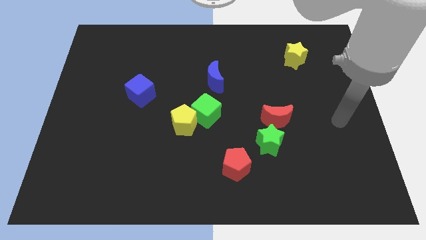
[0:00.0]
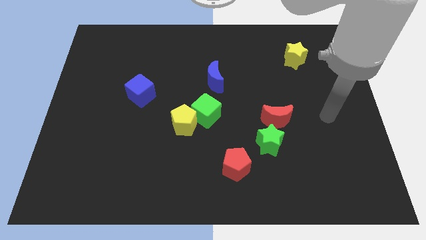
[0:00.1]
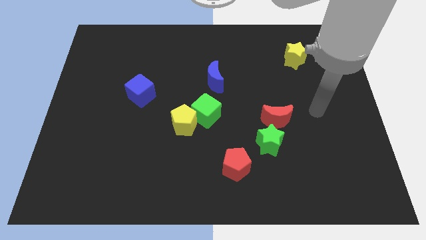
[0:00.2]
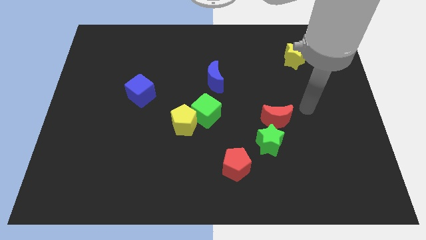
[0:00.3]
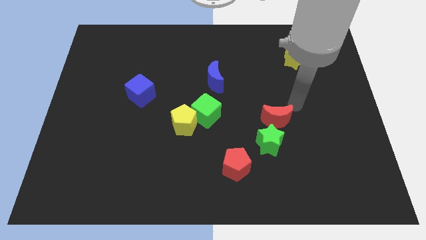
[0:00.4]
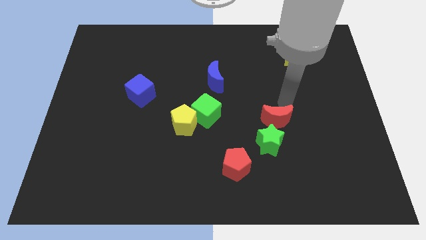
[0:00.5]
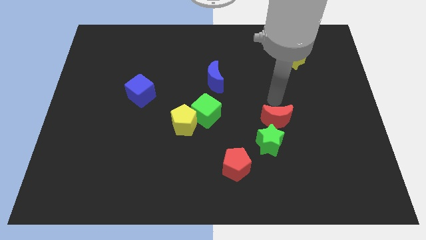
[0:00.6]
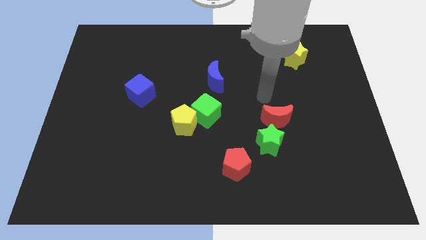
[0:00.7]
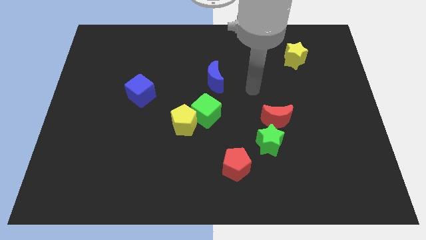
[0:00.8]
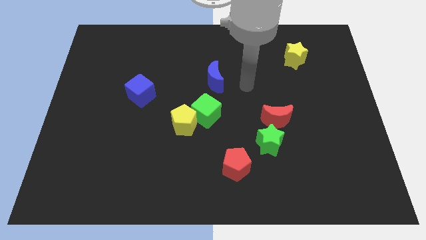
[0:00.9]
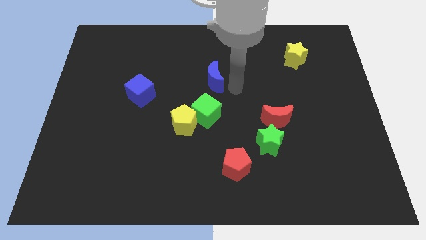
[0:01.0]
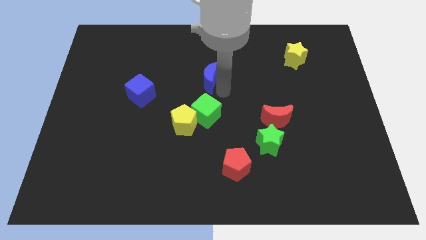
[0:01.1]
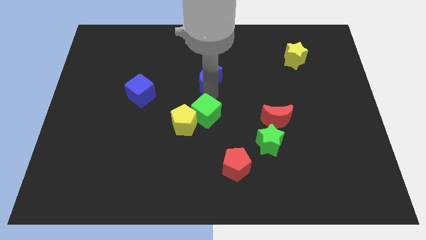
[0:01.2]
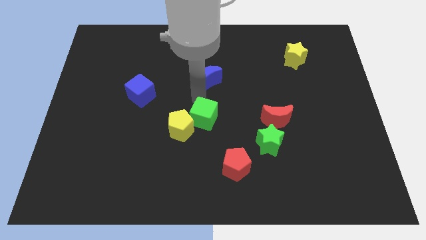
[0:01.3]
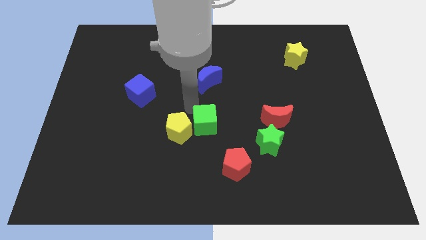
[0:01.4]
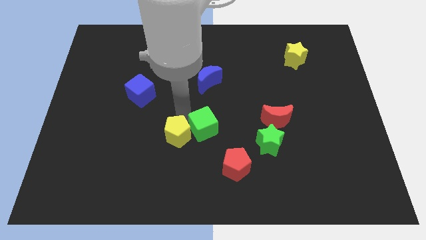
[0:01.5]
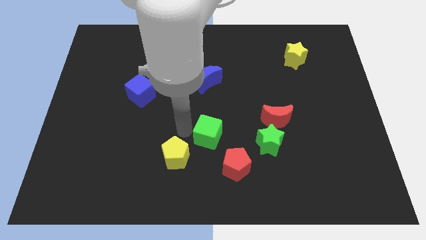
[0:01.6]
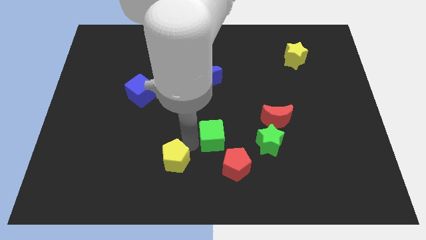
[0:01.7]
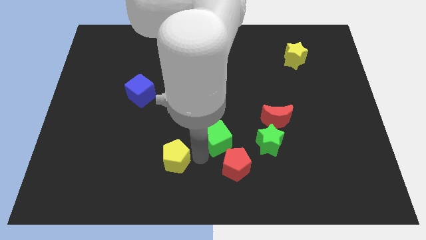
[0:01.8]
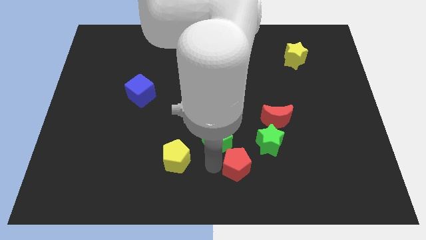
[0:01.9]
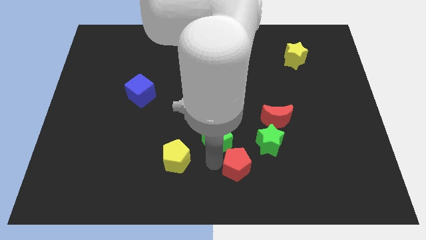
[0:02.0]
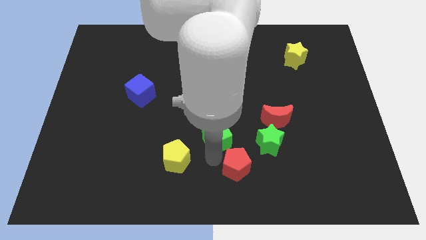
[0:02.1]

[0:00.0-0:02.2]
move the green cube away from the yellow pentagon

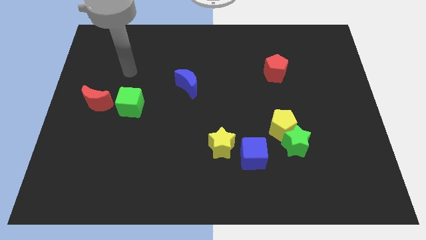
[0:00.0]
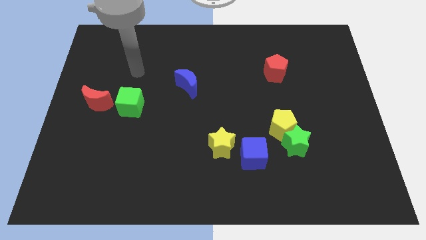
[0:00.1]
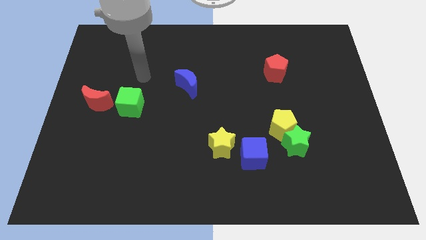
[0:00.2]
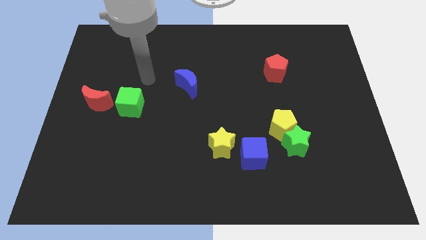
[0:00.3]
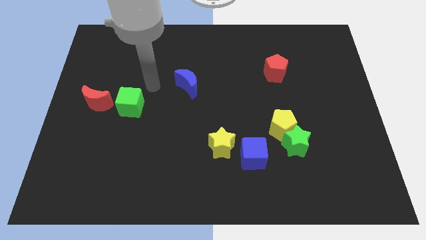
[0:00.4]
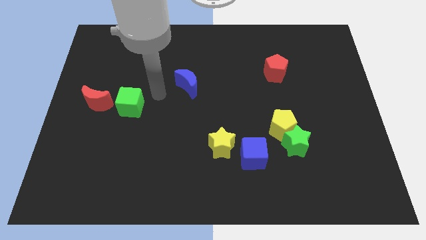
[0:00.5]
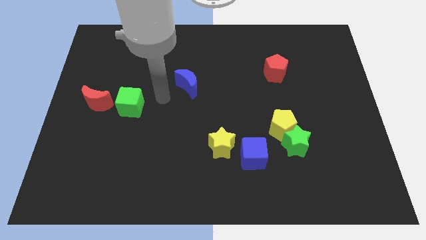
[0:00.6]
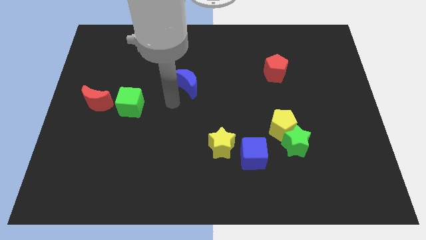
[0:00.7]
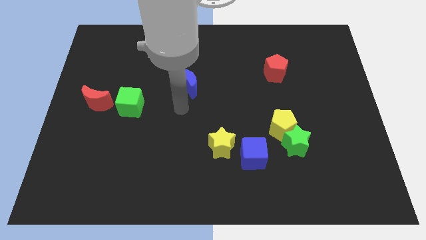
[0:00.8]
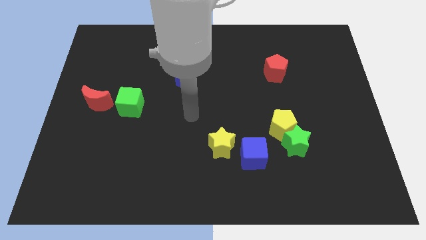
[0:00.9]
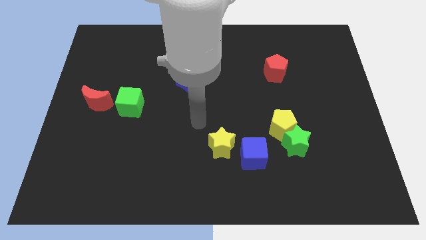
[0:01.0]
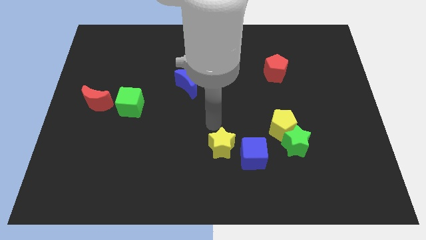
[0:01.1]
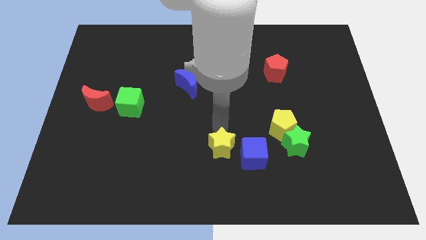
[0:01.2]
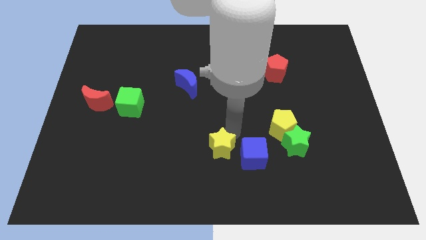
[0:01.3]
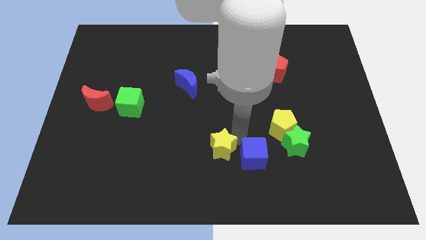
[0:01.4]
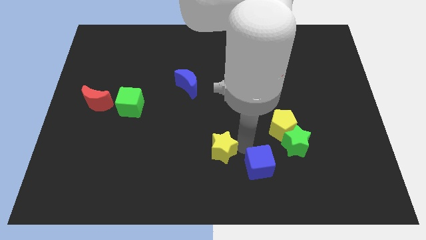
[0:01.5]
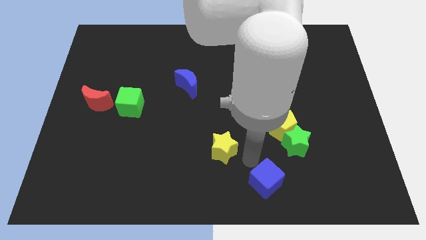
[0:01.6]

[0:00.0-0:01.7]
move the yellow star away from the blue cube

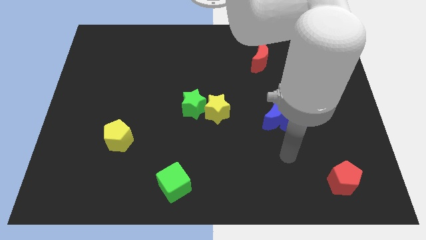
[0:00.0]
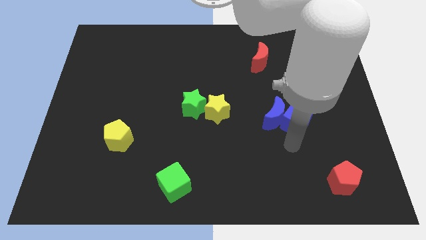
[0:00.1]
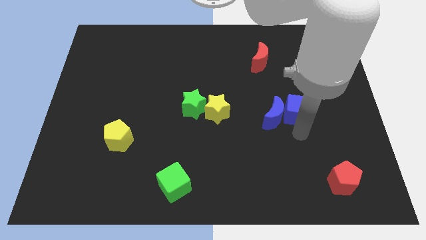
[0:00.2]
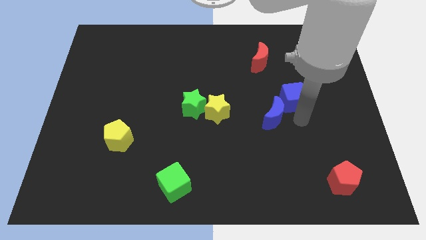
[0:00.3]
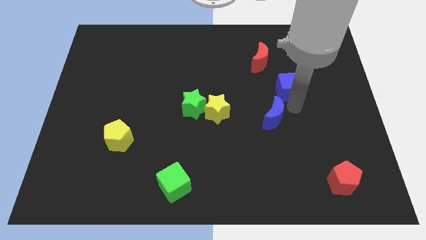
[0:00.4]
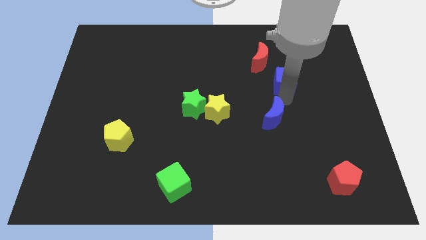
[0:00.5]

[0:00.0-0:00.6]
pull the blue moon apart from the blue cube

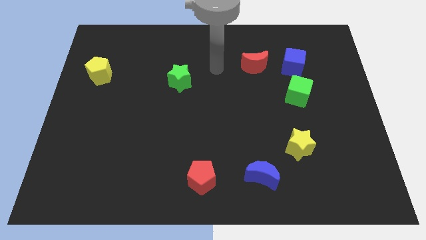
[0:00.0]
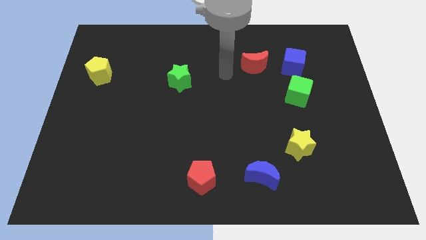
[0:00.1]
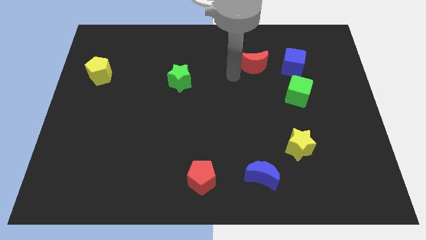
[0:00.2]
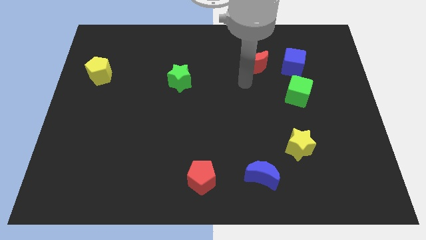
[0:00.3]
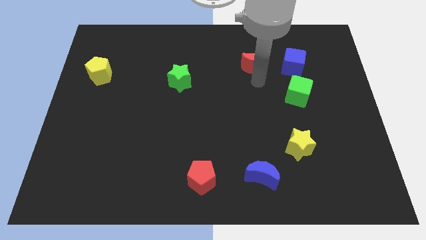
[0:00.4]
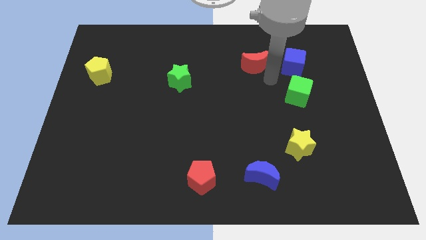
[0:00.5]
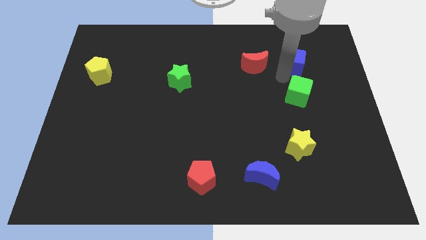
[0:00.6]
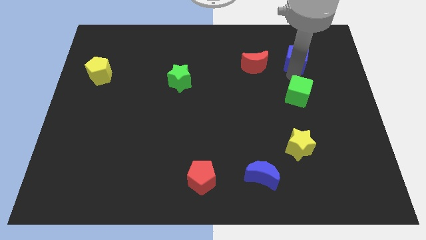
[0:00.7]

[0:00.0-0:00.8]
separate the green cube from the blue cube

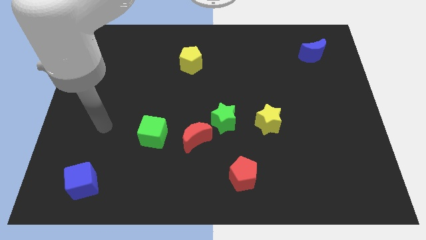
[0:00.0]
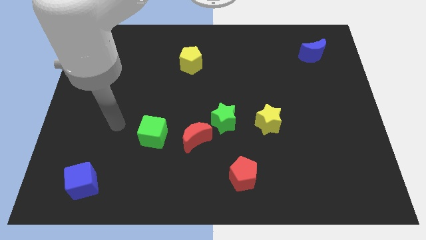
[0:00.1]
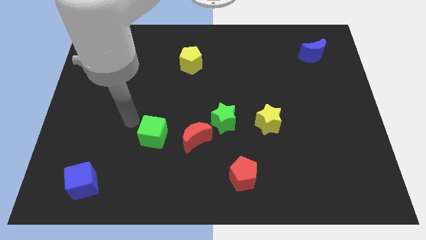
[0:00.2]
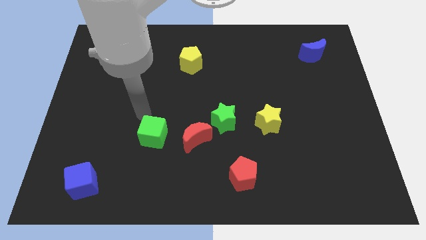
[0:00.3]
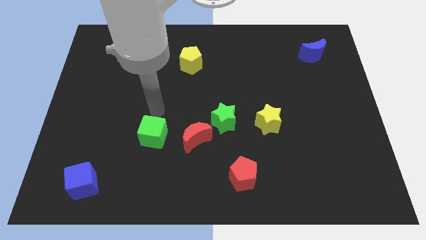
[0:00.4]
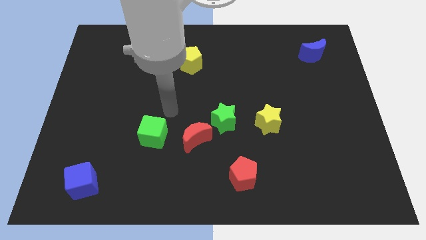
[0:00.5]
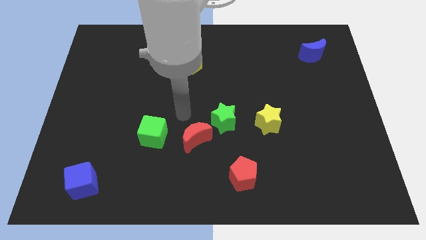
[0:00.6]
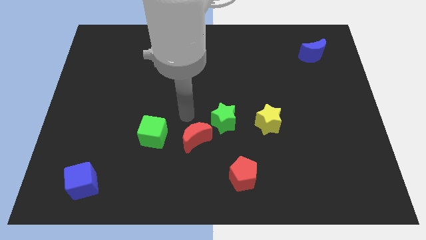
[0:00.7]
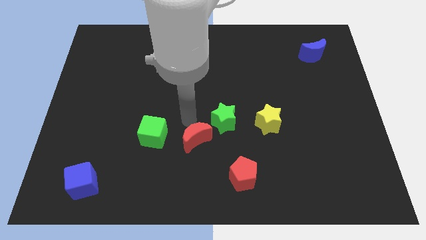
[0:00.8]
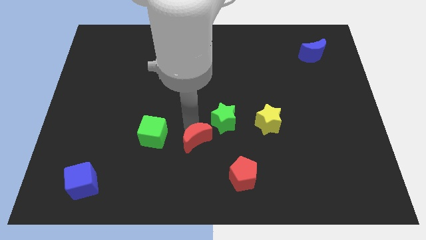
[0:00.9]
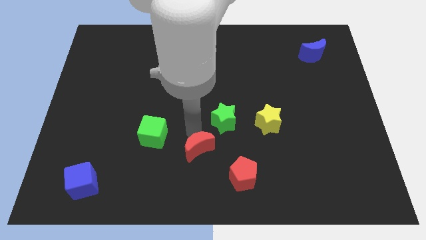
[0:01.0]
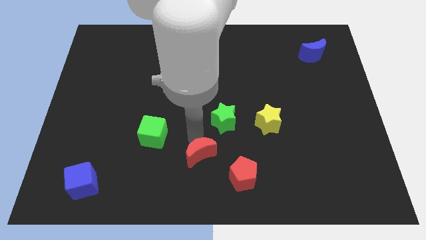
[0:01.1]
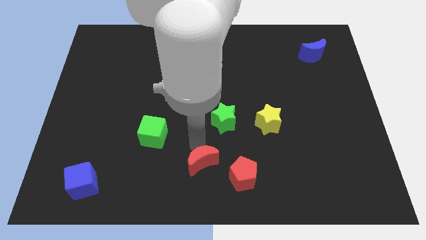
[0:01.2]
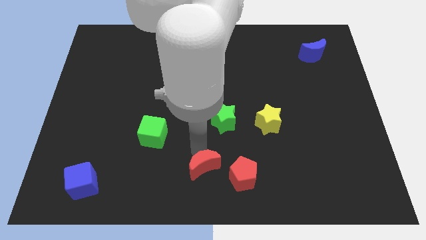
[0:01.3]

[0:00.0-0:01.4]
pull the red moon apart from the green star and green cube

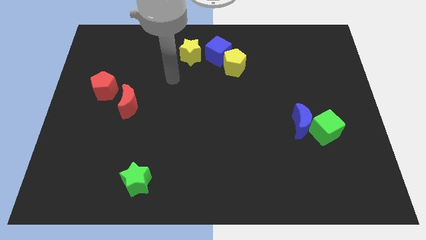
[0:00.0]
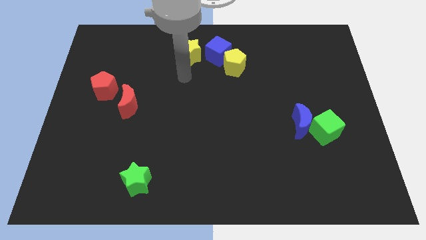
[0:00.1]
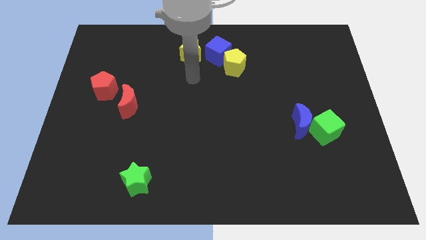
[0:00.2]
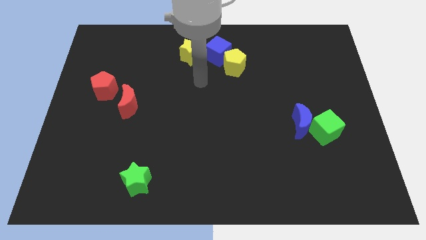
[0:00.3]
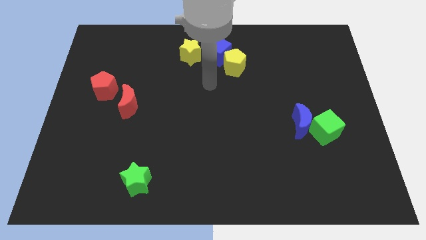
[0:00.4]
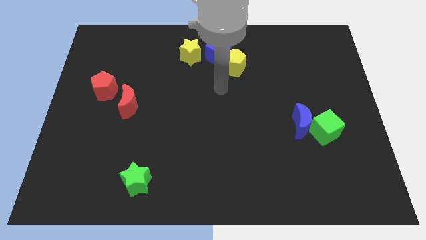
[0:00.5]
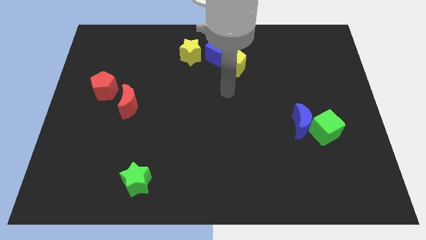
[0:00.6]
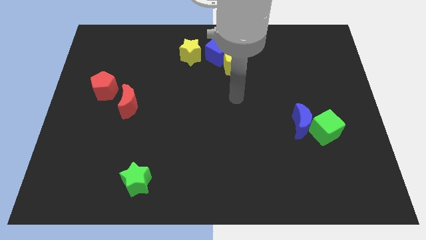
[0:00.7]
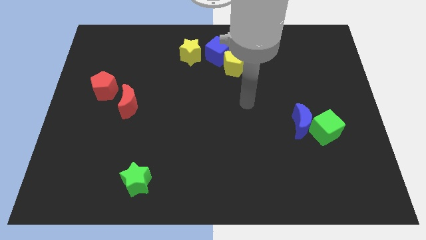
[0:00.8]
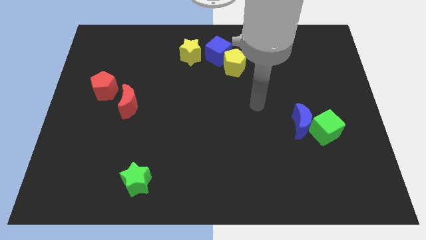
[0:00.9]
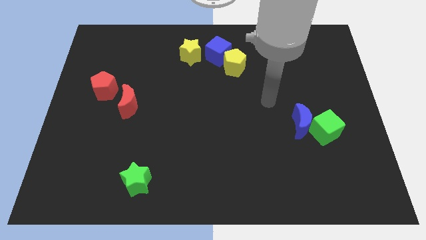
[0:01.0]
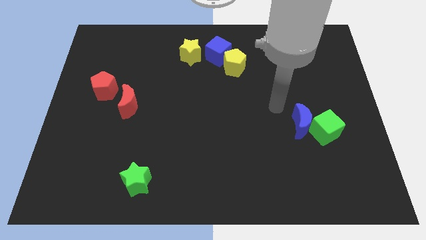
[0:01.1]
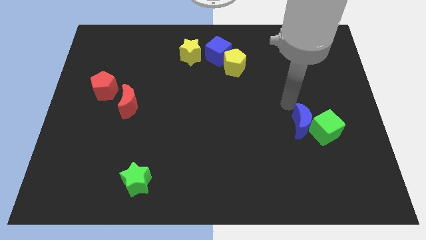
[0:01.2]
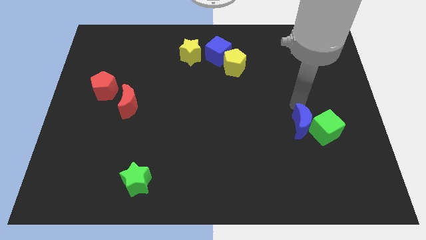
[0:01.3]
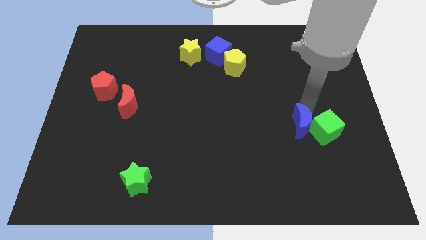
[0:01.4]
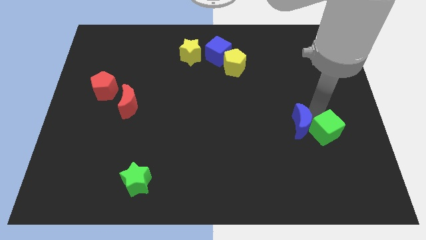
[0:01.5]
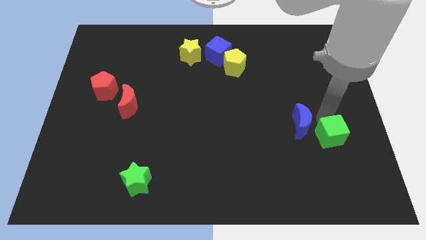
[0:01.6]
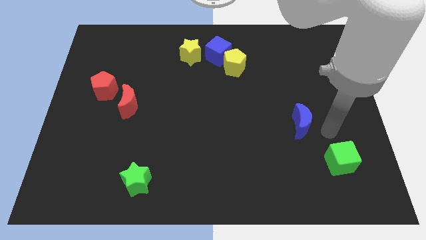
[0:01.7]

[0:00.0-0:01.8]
separate the blue moon from the green cube

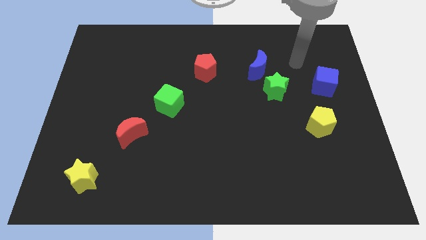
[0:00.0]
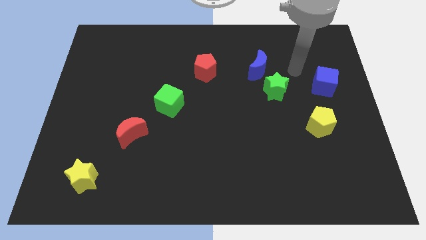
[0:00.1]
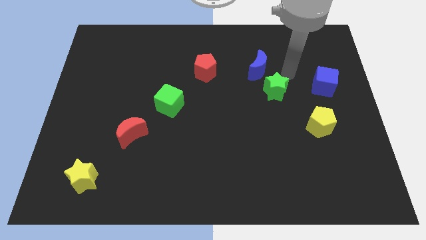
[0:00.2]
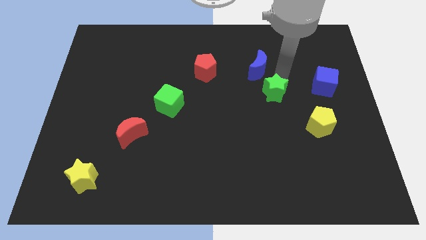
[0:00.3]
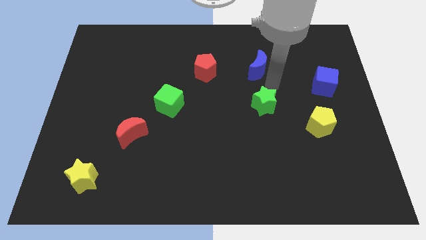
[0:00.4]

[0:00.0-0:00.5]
move the blue moon away from the green star

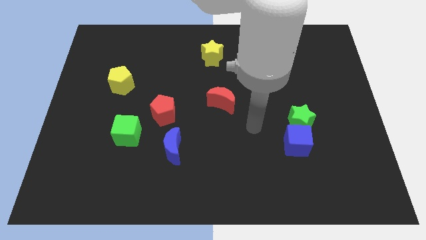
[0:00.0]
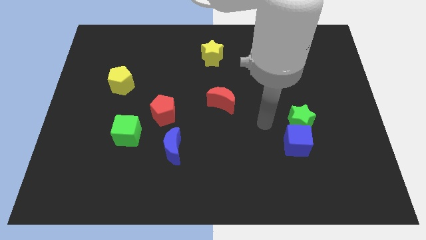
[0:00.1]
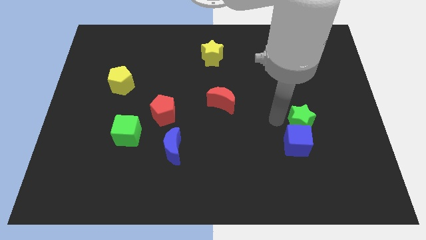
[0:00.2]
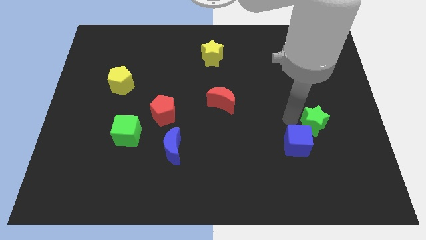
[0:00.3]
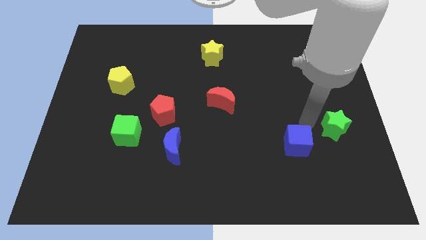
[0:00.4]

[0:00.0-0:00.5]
move the blue cube away from the green star
